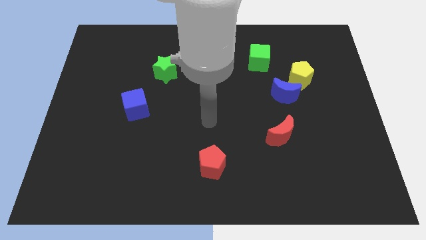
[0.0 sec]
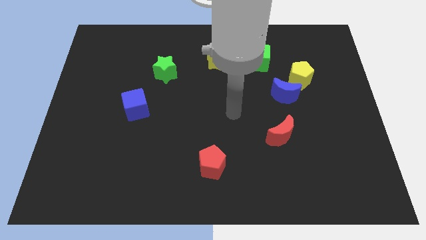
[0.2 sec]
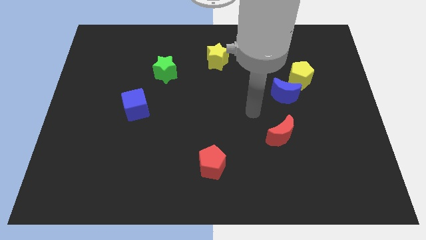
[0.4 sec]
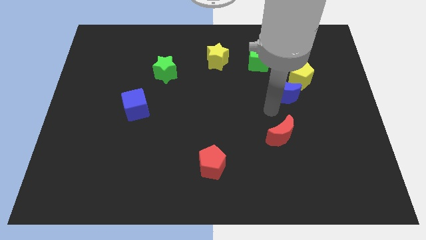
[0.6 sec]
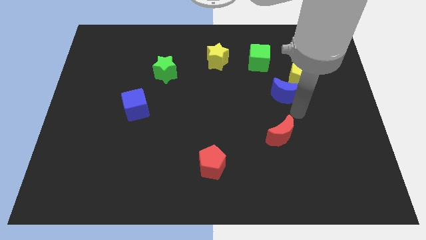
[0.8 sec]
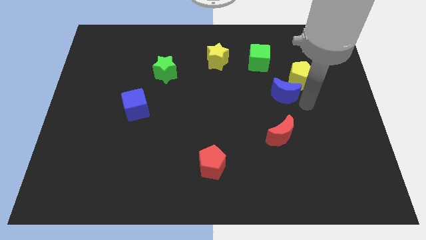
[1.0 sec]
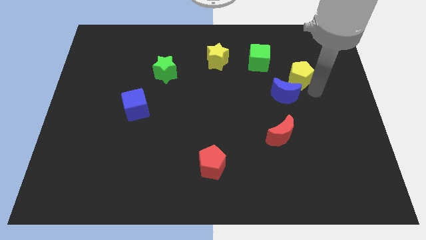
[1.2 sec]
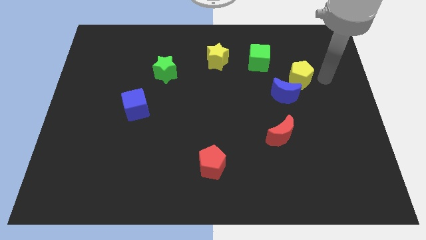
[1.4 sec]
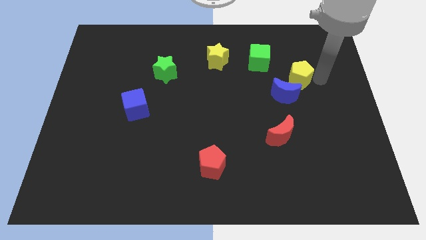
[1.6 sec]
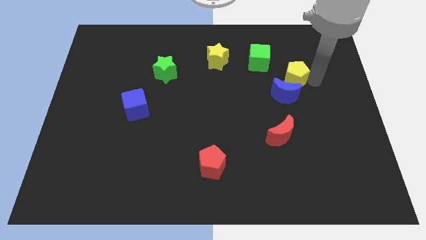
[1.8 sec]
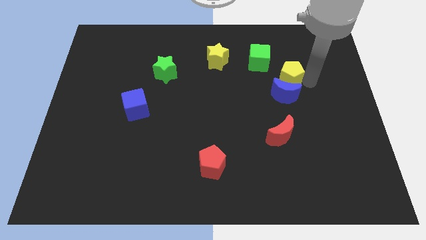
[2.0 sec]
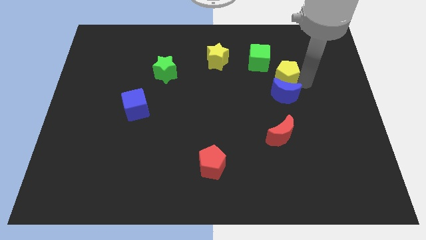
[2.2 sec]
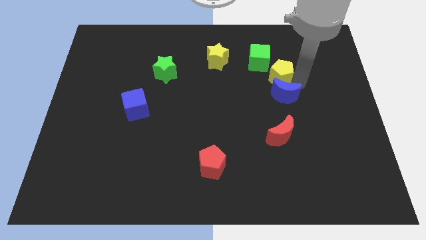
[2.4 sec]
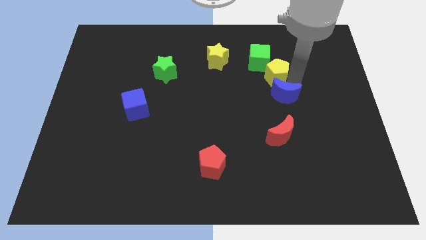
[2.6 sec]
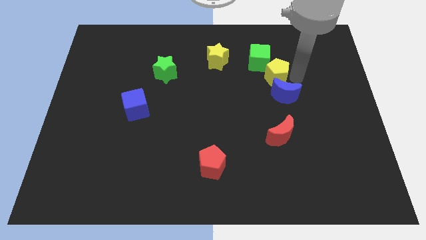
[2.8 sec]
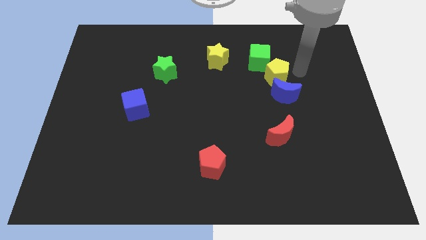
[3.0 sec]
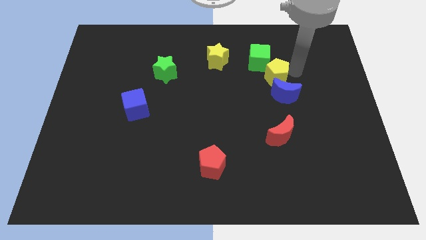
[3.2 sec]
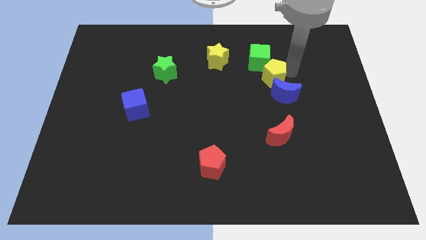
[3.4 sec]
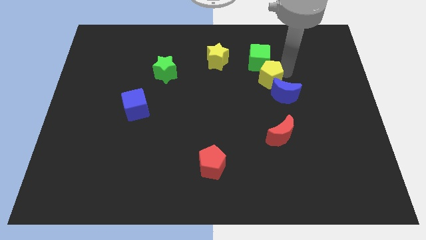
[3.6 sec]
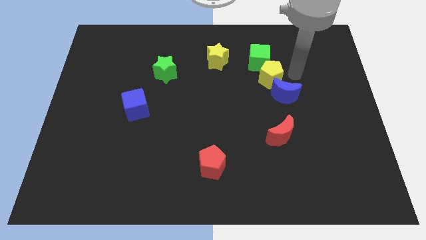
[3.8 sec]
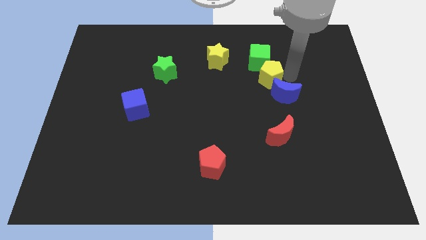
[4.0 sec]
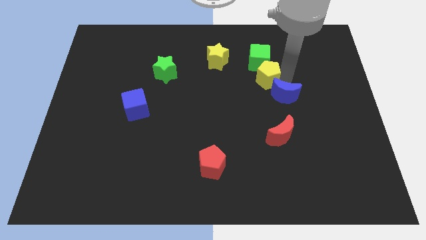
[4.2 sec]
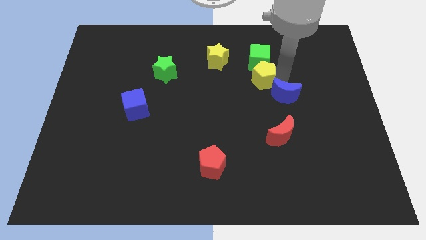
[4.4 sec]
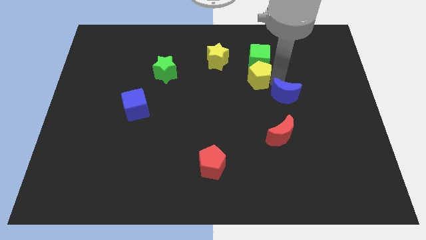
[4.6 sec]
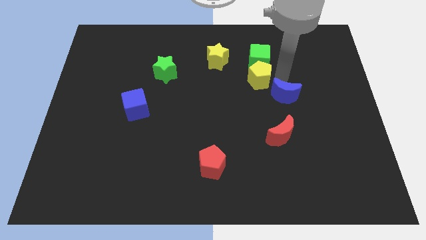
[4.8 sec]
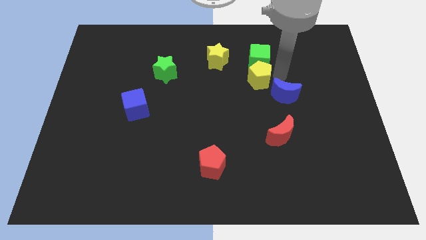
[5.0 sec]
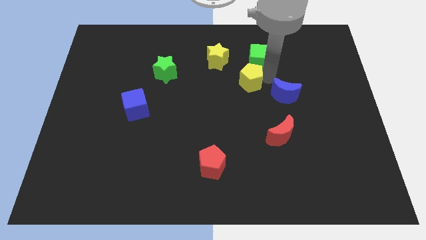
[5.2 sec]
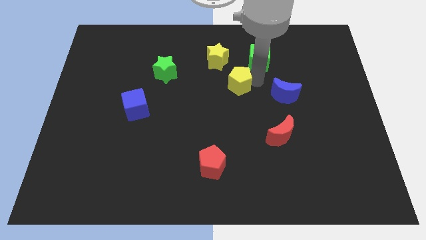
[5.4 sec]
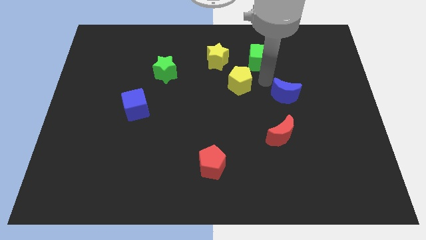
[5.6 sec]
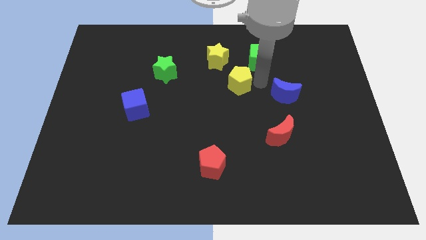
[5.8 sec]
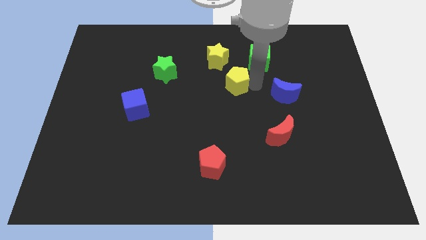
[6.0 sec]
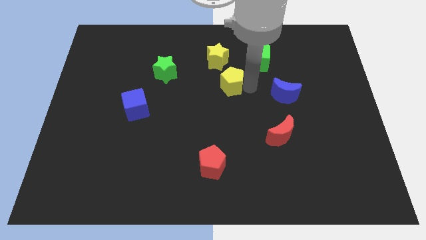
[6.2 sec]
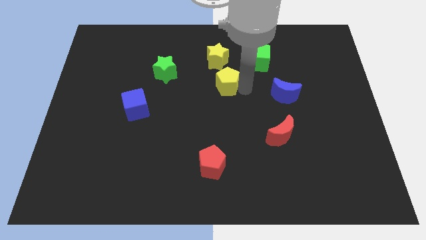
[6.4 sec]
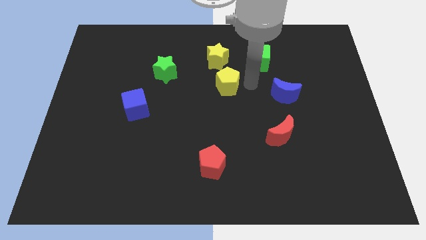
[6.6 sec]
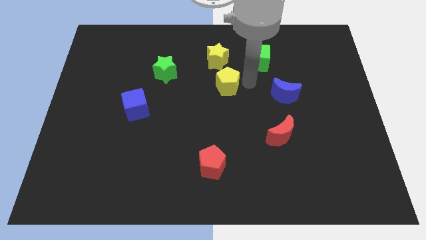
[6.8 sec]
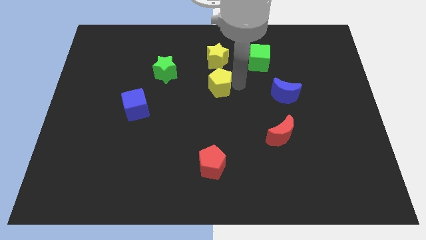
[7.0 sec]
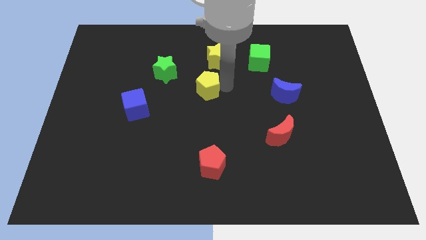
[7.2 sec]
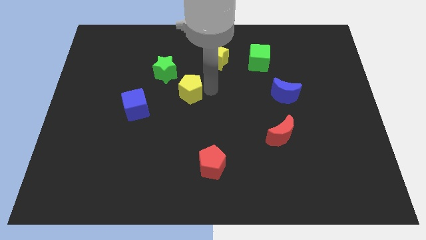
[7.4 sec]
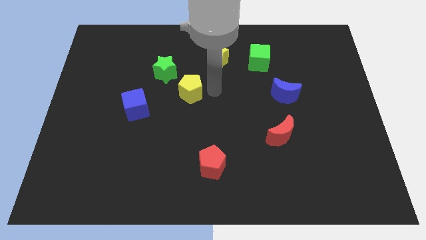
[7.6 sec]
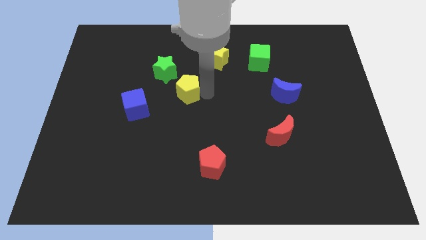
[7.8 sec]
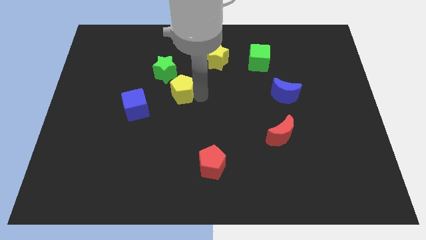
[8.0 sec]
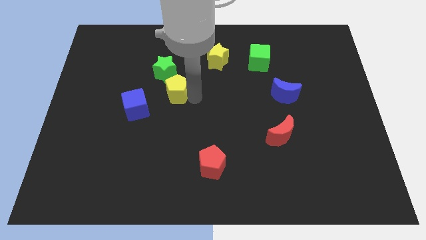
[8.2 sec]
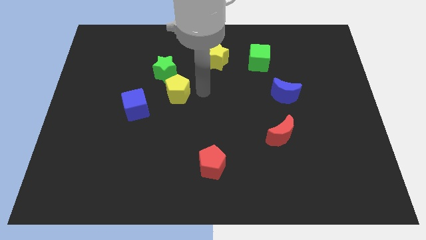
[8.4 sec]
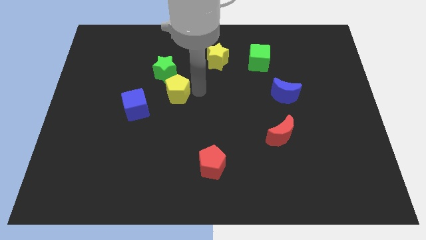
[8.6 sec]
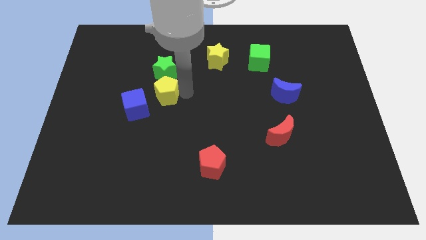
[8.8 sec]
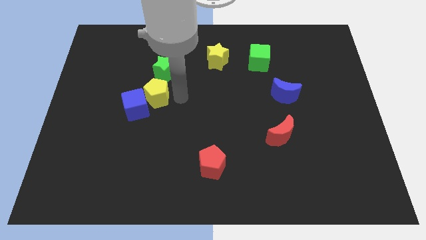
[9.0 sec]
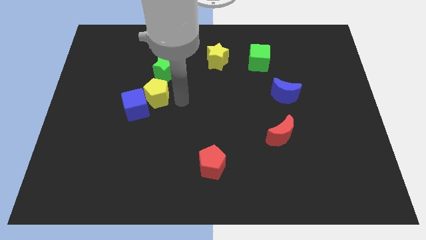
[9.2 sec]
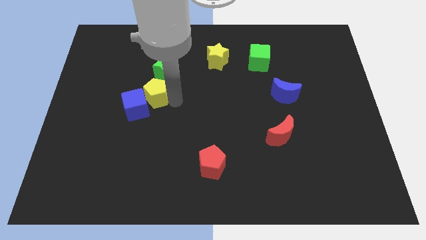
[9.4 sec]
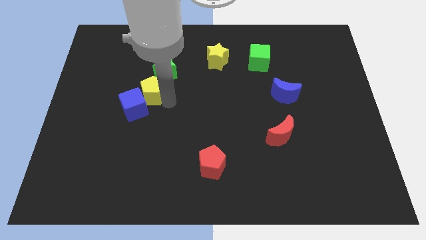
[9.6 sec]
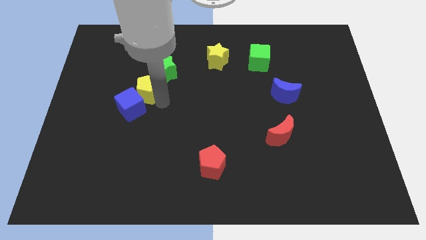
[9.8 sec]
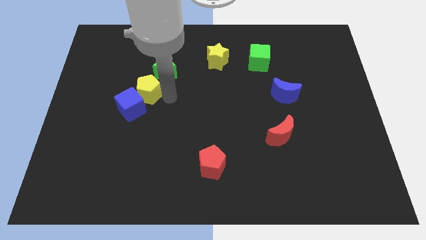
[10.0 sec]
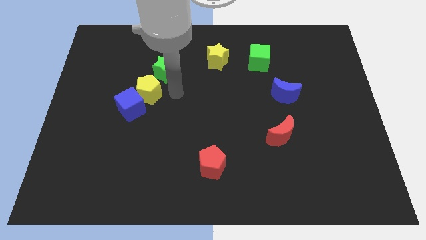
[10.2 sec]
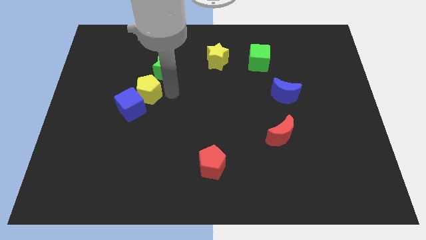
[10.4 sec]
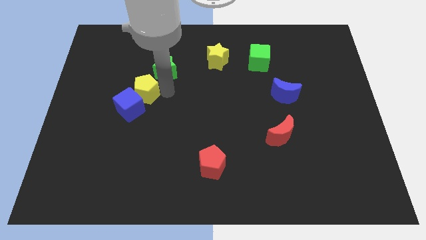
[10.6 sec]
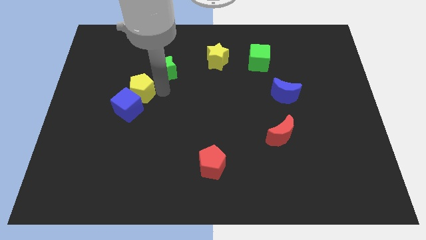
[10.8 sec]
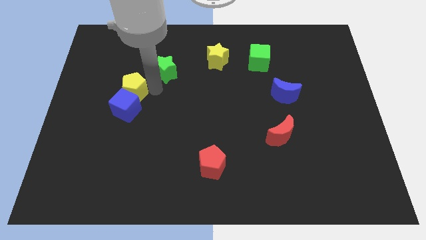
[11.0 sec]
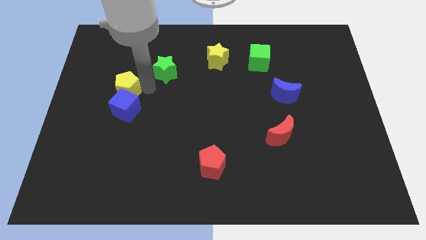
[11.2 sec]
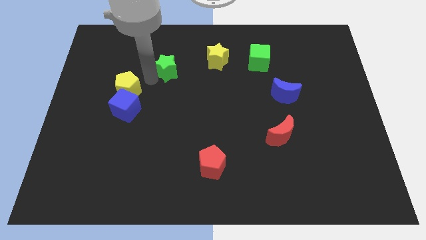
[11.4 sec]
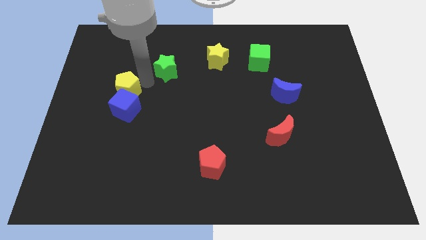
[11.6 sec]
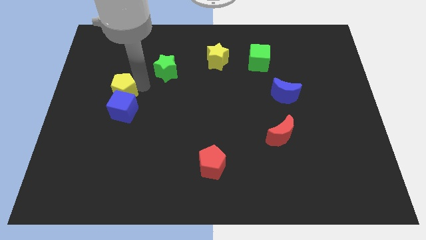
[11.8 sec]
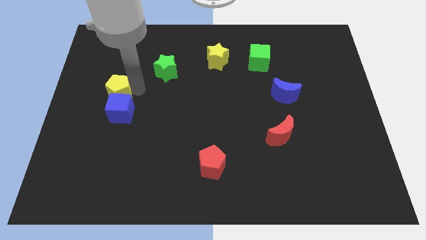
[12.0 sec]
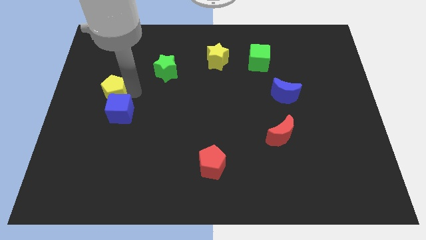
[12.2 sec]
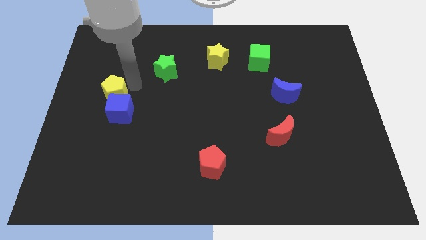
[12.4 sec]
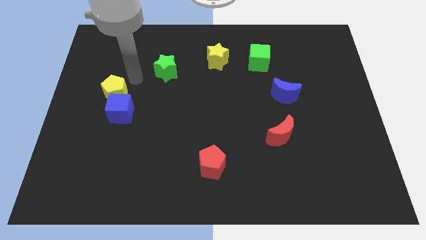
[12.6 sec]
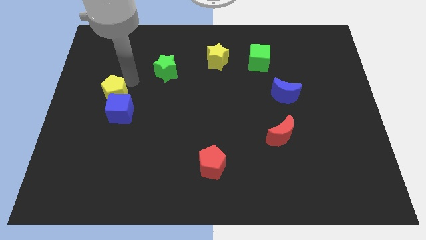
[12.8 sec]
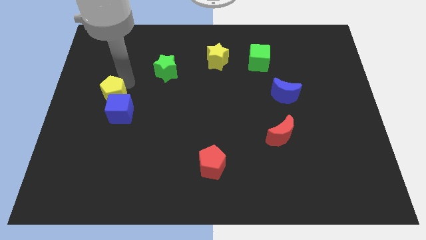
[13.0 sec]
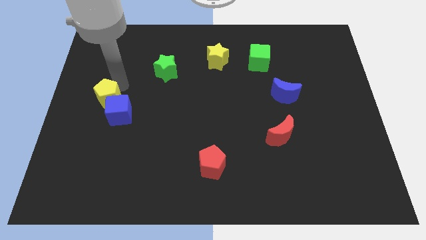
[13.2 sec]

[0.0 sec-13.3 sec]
put the yellow pentagon to the left side

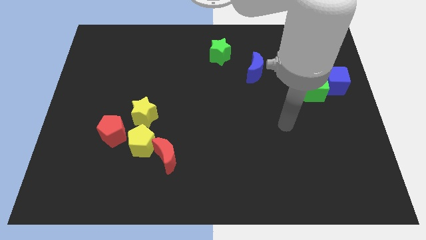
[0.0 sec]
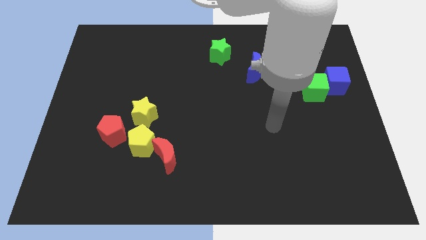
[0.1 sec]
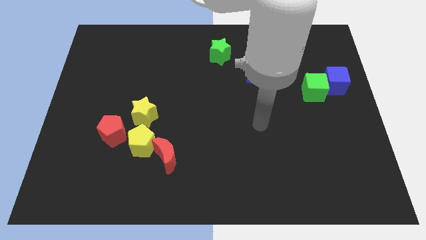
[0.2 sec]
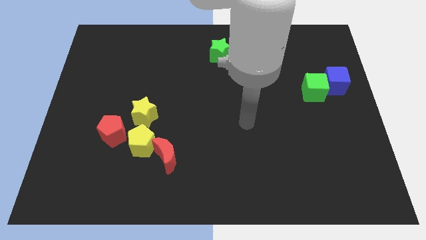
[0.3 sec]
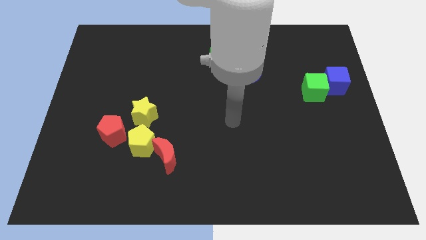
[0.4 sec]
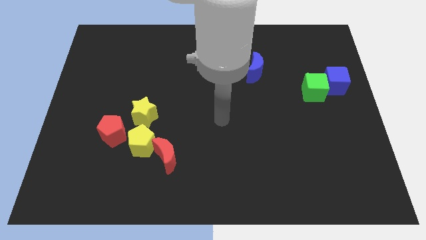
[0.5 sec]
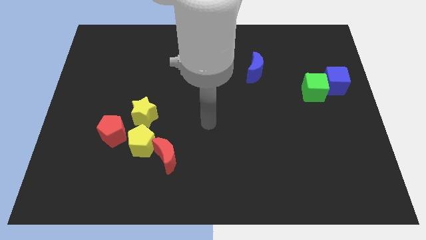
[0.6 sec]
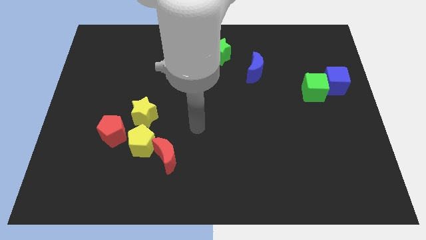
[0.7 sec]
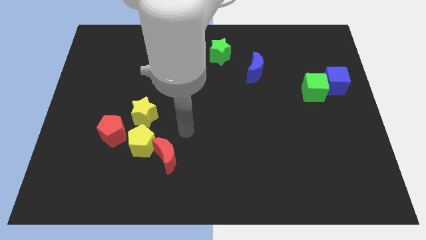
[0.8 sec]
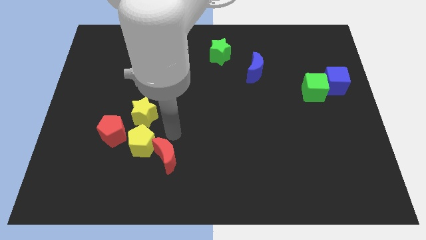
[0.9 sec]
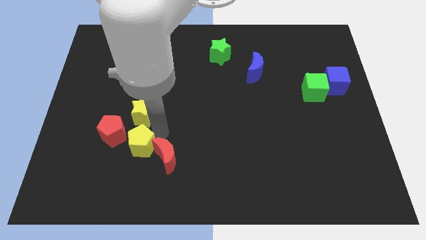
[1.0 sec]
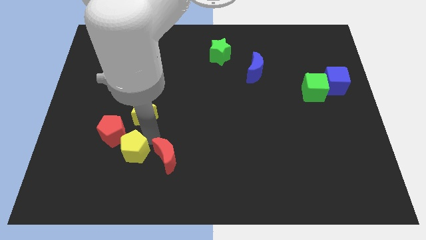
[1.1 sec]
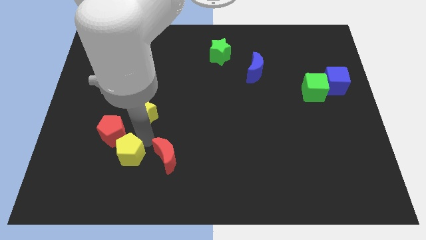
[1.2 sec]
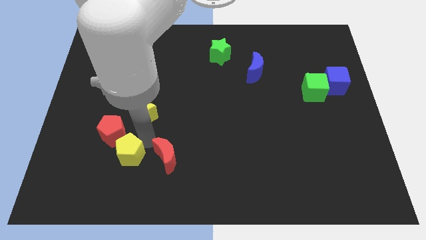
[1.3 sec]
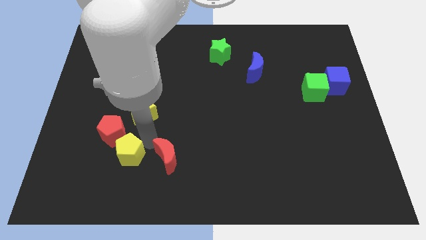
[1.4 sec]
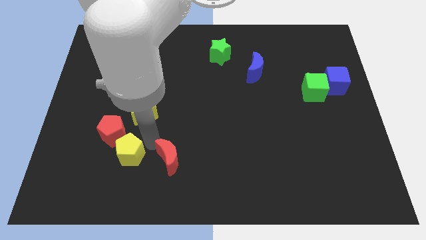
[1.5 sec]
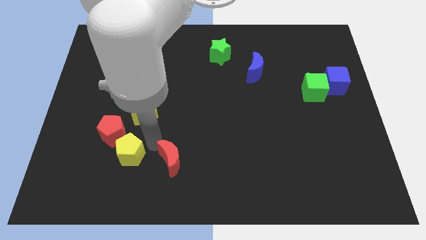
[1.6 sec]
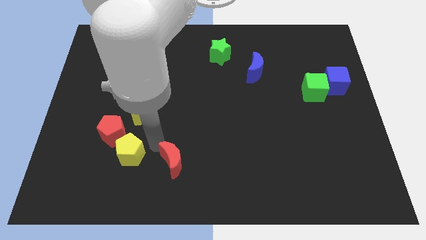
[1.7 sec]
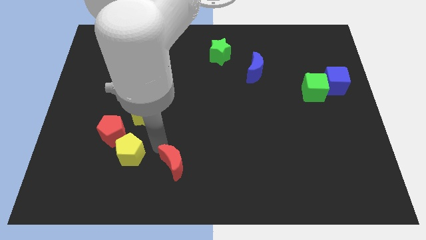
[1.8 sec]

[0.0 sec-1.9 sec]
move the red moon to the bottom side
